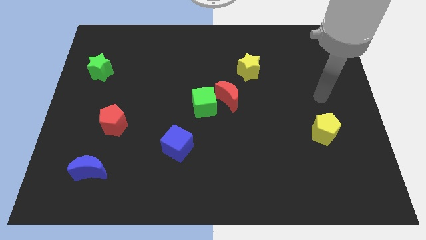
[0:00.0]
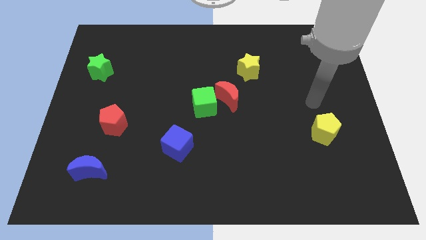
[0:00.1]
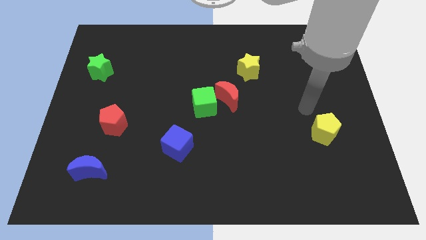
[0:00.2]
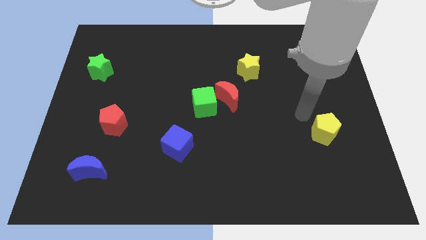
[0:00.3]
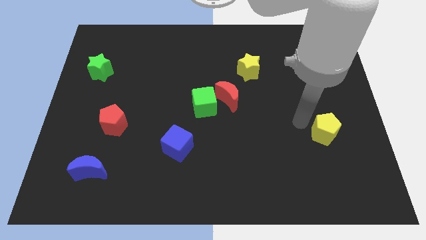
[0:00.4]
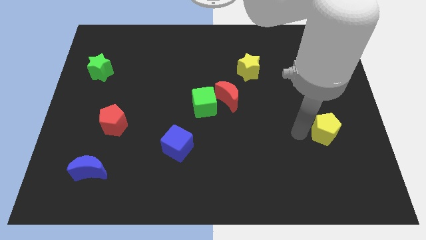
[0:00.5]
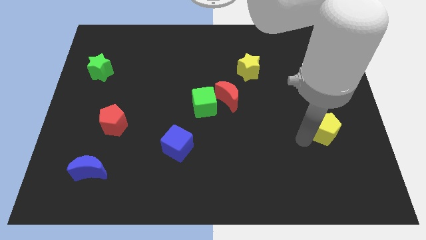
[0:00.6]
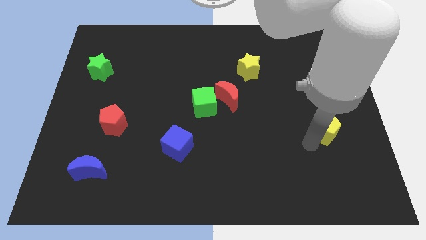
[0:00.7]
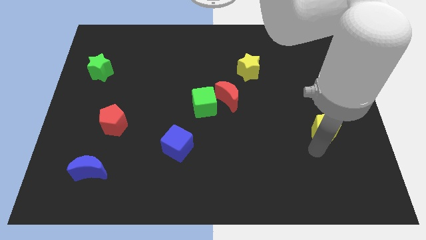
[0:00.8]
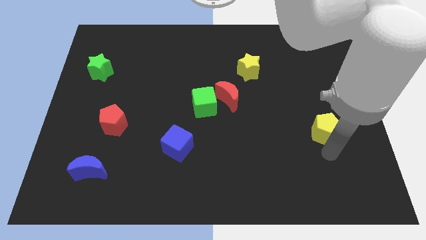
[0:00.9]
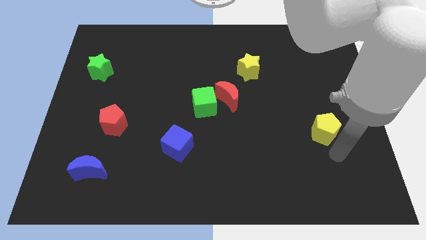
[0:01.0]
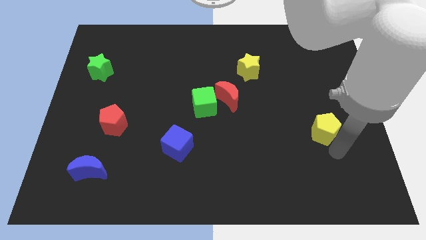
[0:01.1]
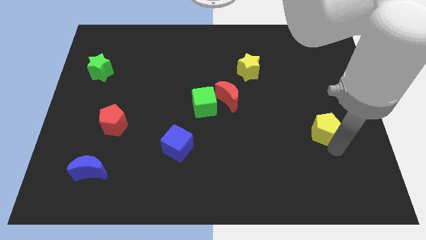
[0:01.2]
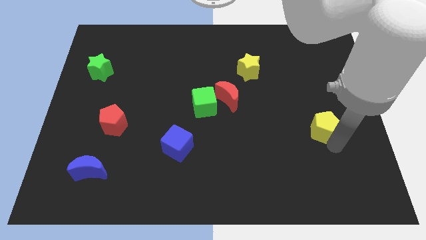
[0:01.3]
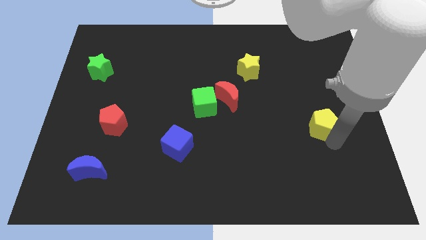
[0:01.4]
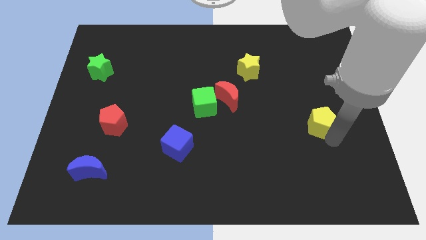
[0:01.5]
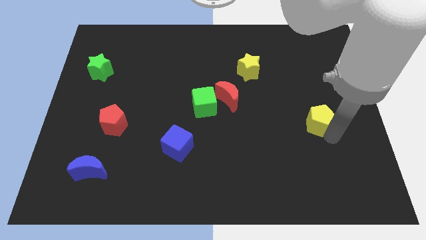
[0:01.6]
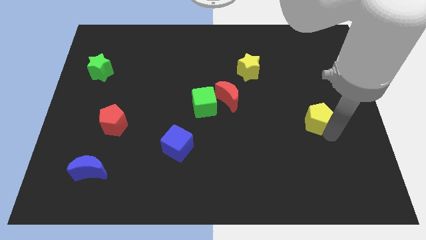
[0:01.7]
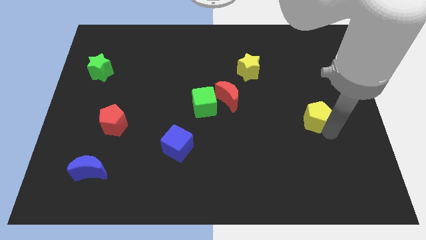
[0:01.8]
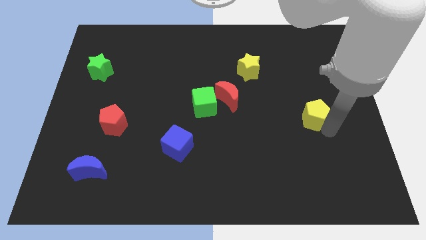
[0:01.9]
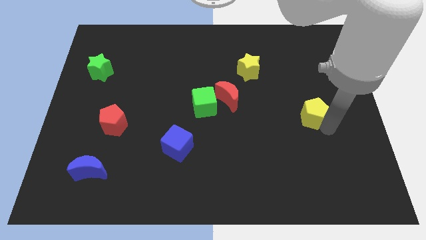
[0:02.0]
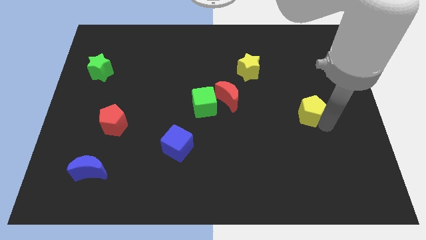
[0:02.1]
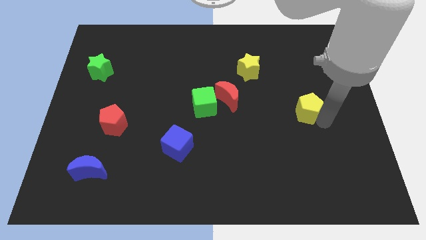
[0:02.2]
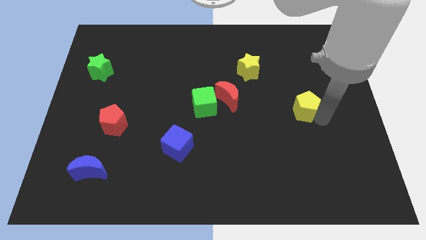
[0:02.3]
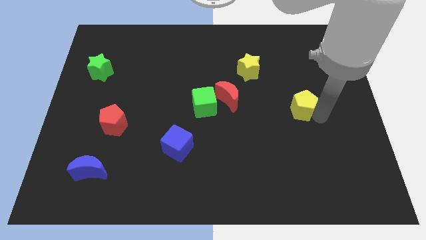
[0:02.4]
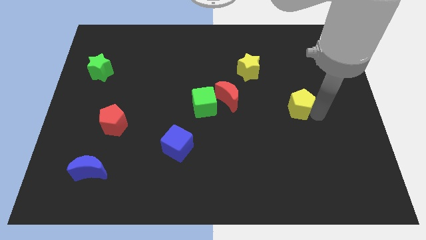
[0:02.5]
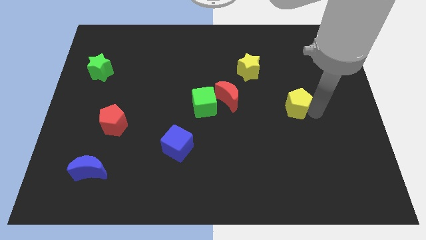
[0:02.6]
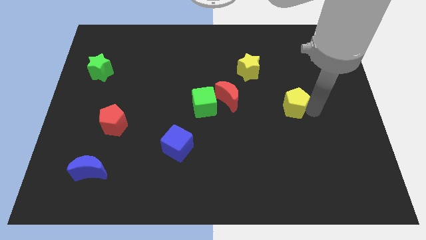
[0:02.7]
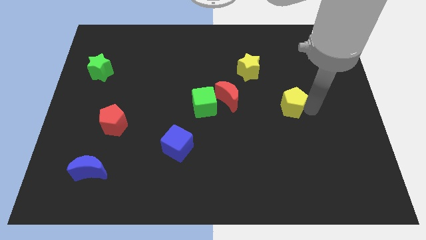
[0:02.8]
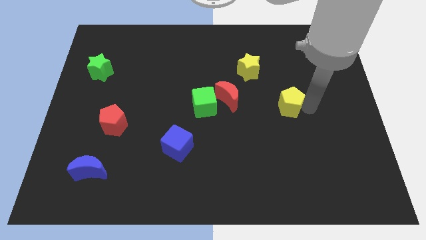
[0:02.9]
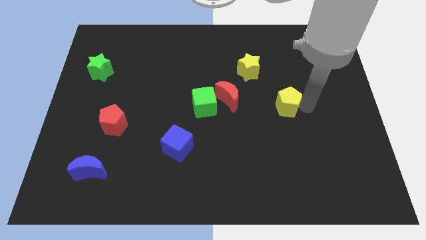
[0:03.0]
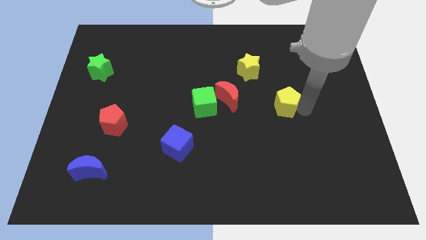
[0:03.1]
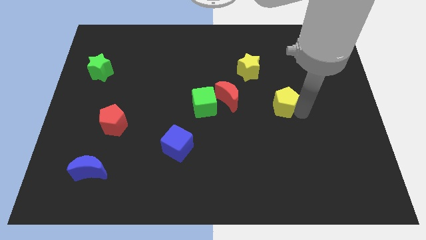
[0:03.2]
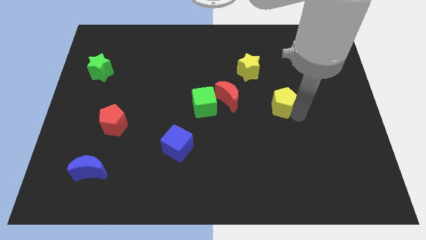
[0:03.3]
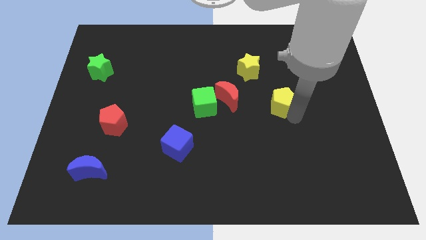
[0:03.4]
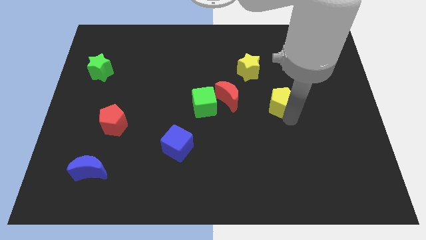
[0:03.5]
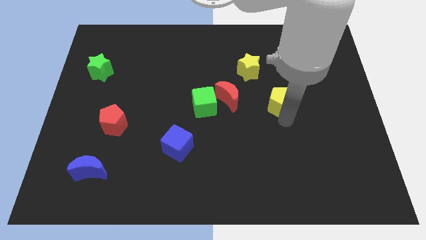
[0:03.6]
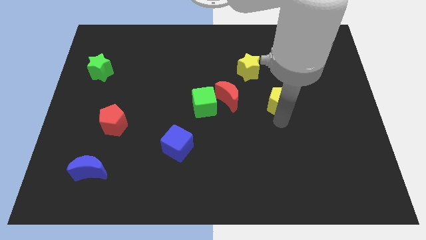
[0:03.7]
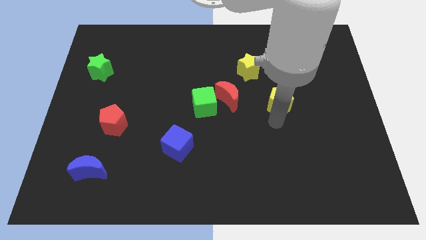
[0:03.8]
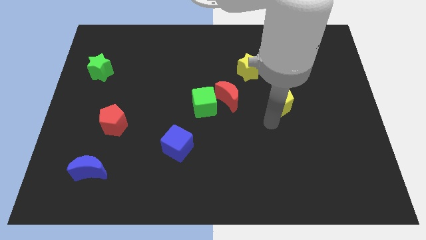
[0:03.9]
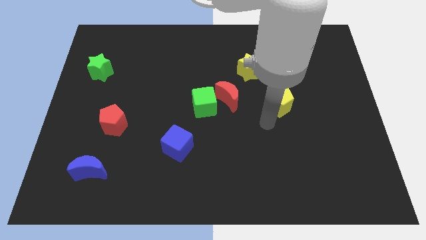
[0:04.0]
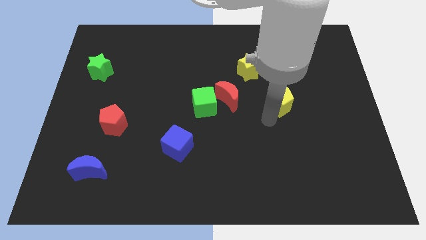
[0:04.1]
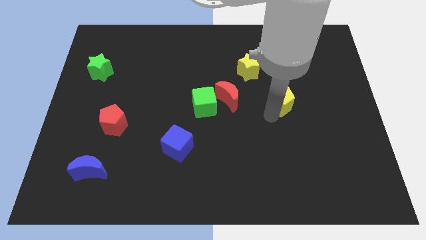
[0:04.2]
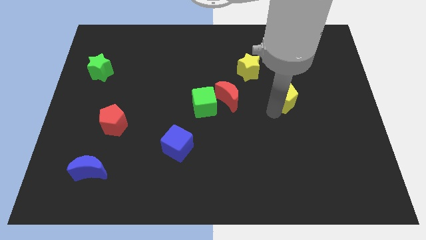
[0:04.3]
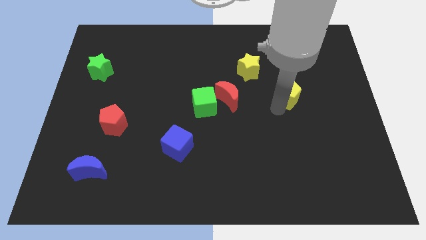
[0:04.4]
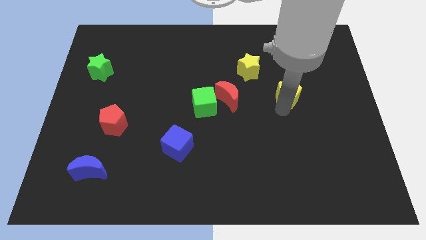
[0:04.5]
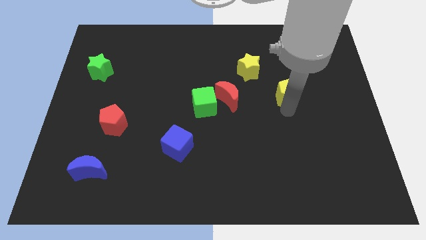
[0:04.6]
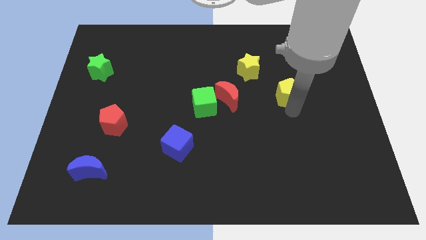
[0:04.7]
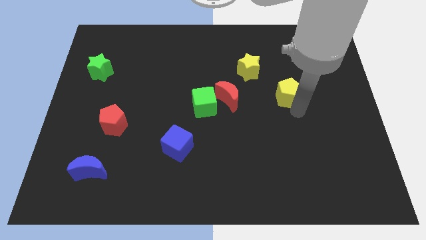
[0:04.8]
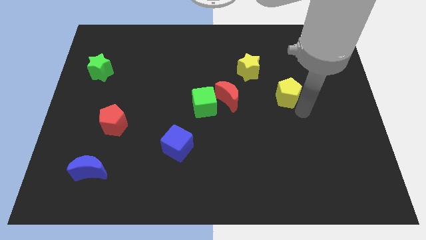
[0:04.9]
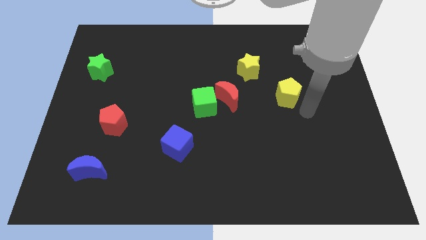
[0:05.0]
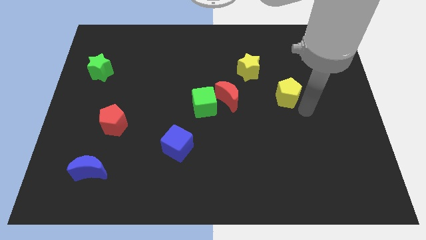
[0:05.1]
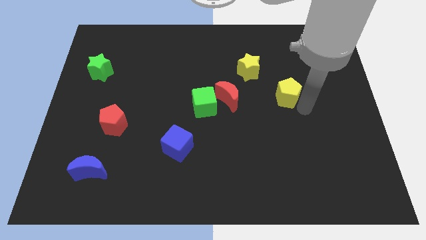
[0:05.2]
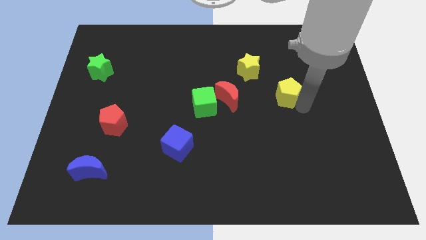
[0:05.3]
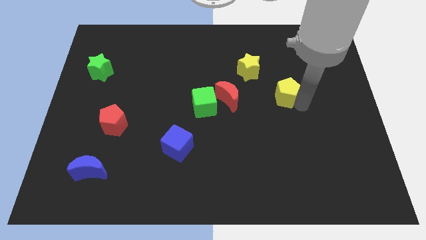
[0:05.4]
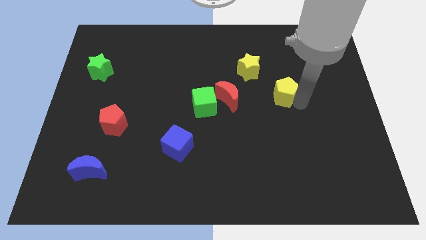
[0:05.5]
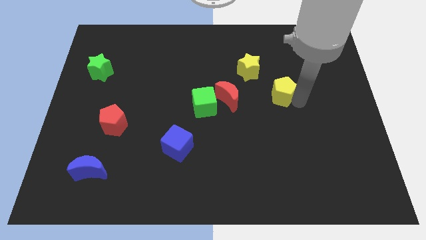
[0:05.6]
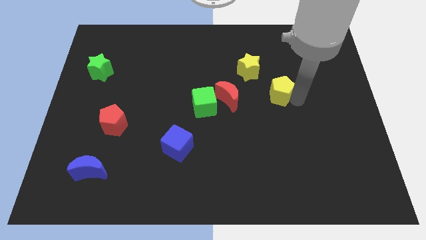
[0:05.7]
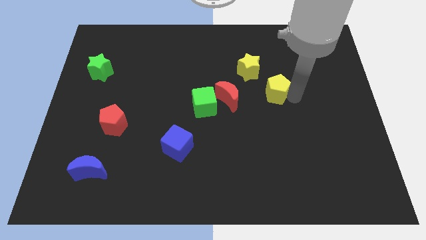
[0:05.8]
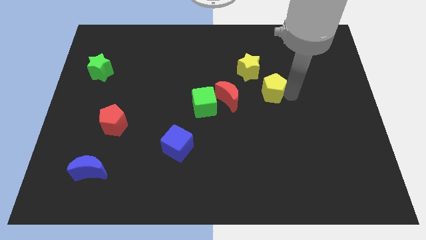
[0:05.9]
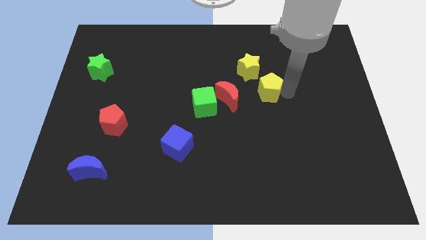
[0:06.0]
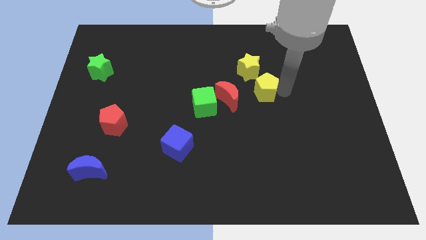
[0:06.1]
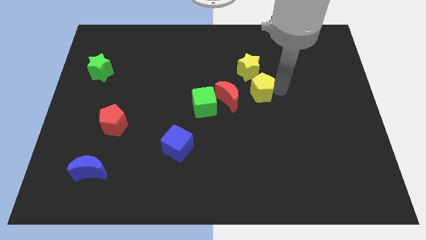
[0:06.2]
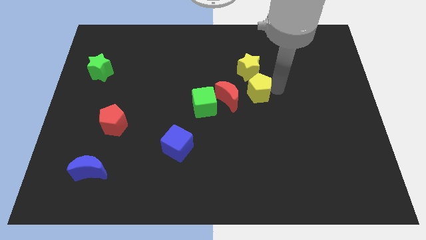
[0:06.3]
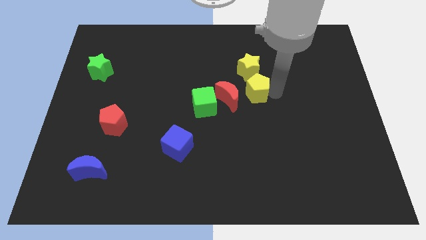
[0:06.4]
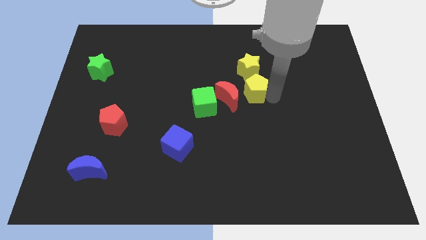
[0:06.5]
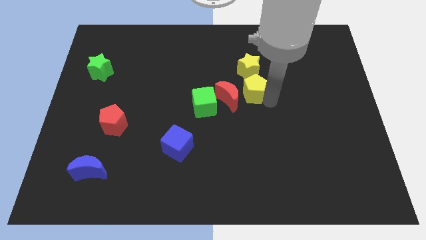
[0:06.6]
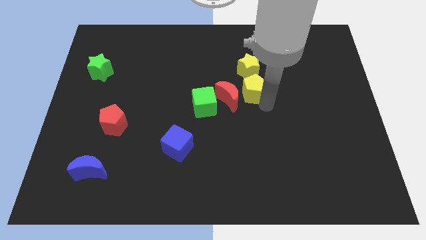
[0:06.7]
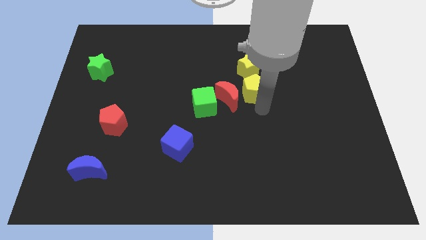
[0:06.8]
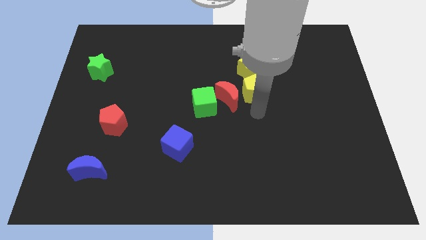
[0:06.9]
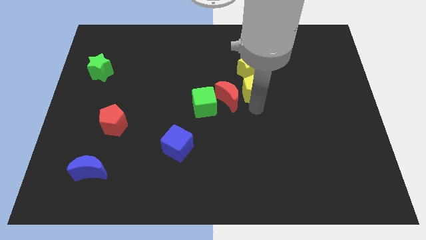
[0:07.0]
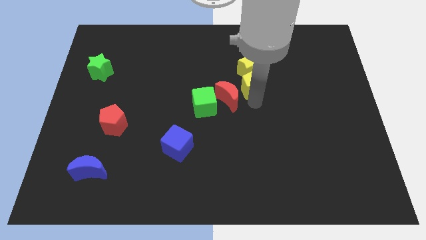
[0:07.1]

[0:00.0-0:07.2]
put the yellow pentagon close to the yellow star

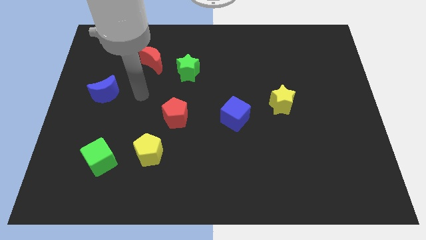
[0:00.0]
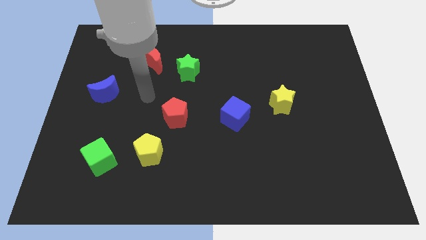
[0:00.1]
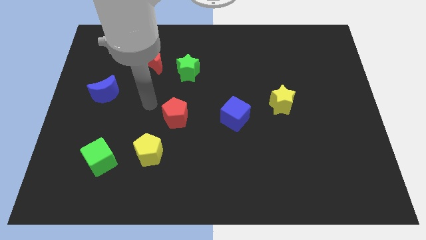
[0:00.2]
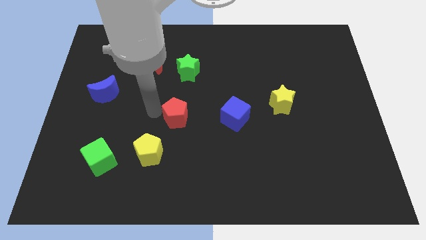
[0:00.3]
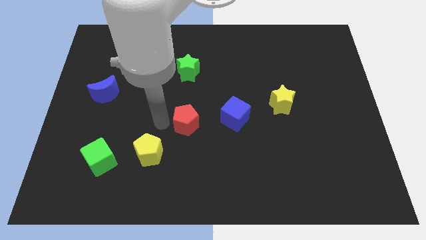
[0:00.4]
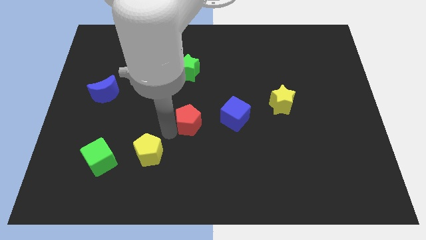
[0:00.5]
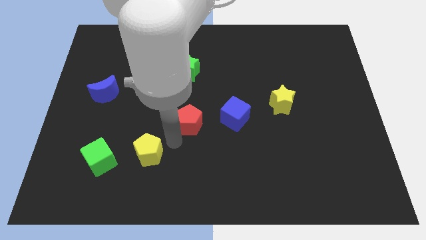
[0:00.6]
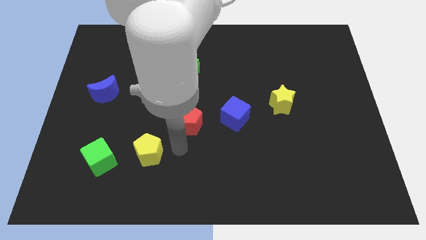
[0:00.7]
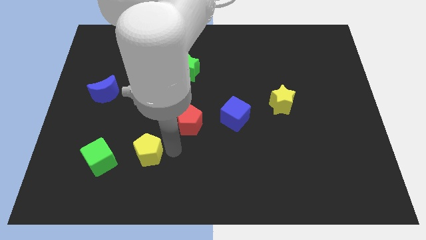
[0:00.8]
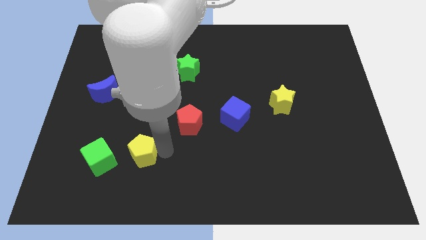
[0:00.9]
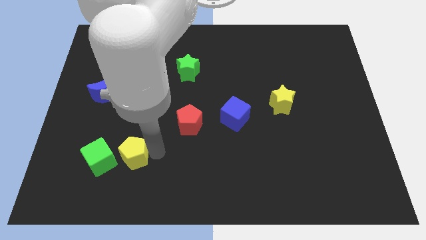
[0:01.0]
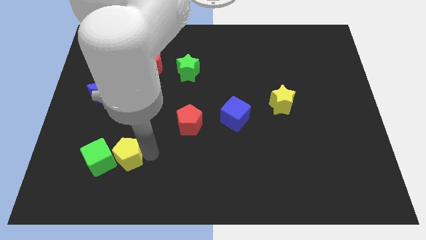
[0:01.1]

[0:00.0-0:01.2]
slide the yellow pentagon next to the green cube
